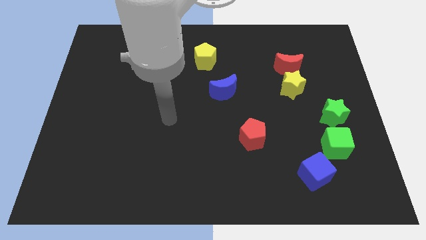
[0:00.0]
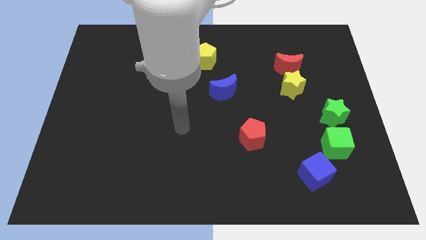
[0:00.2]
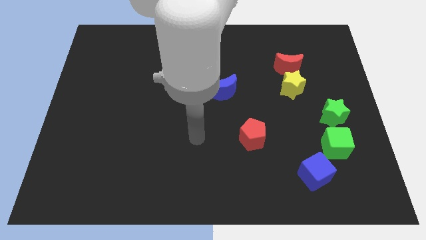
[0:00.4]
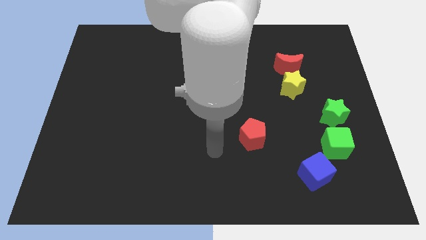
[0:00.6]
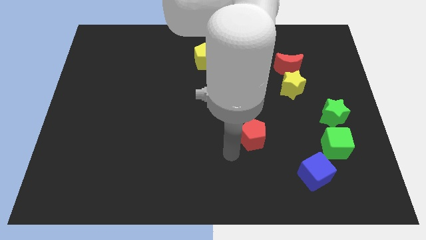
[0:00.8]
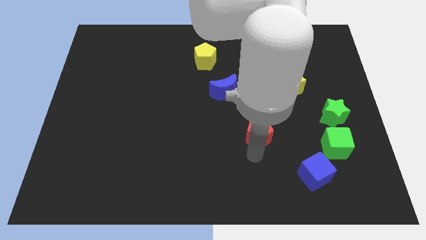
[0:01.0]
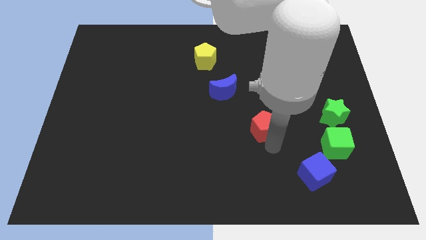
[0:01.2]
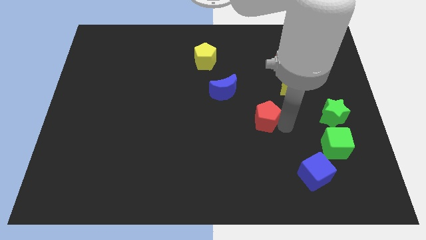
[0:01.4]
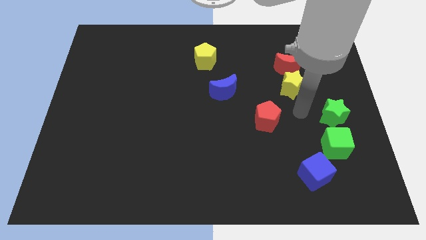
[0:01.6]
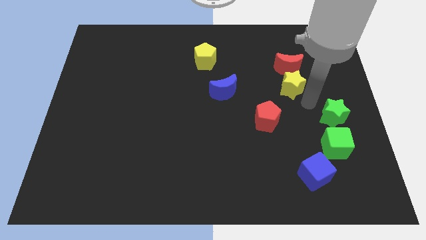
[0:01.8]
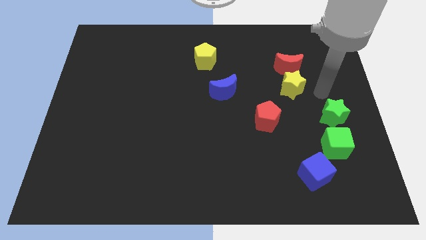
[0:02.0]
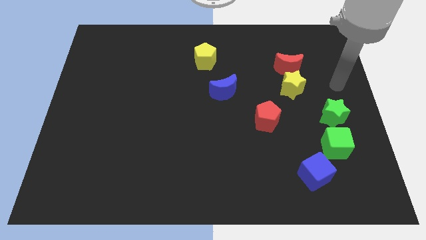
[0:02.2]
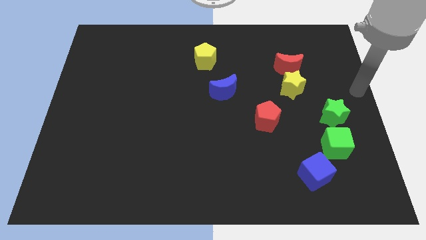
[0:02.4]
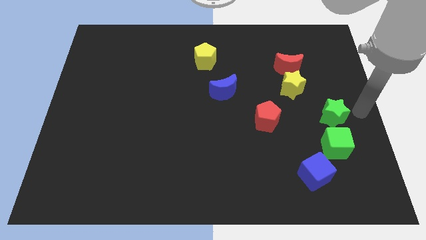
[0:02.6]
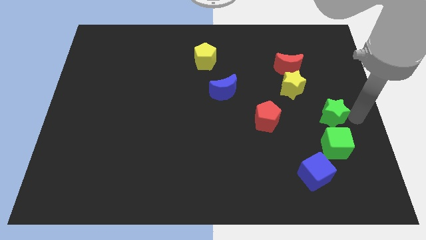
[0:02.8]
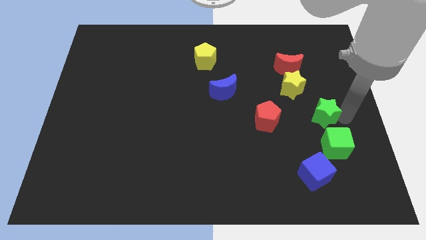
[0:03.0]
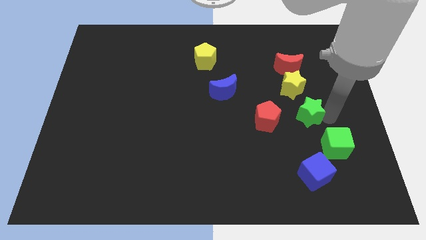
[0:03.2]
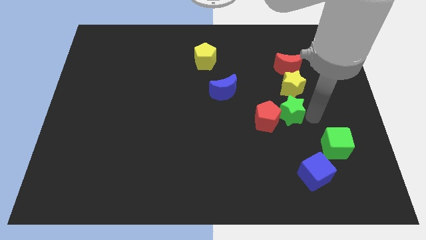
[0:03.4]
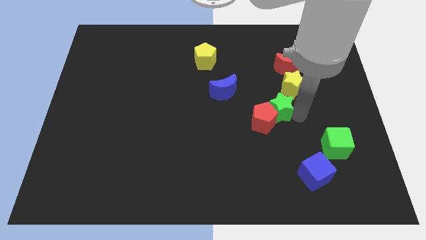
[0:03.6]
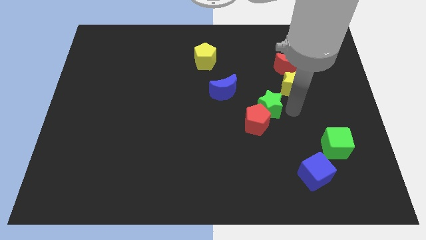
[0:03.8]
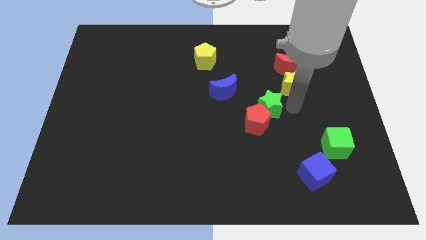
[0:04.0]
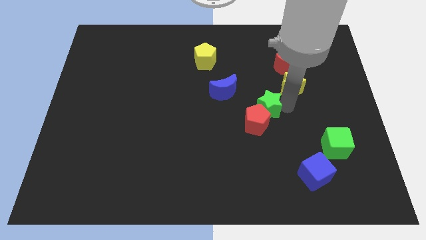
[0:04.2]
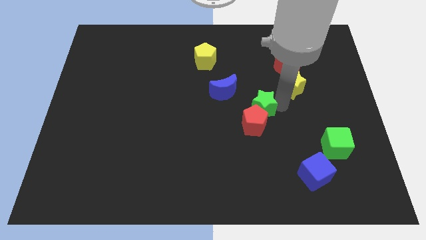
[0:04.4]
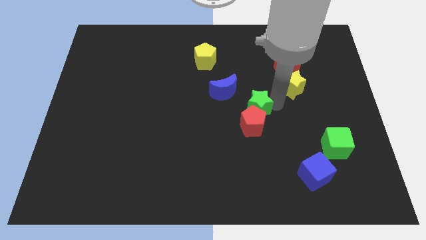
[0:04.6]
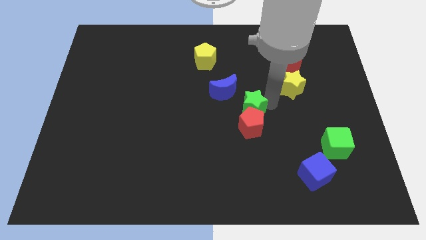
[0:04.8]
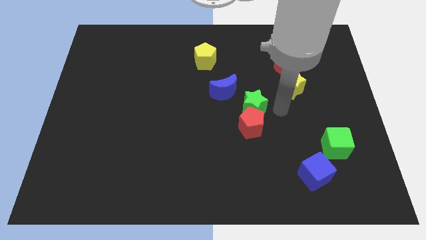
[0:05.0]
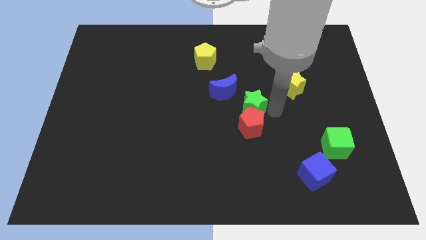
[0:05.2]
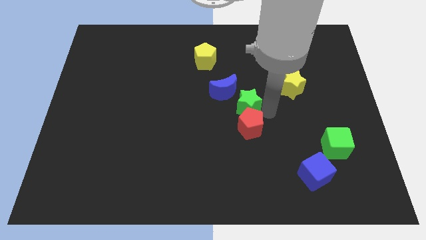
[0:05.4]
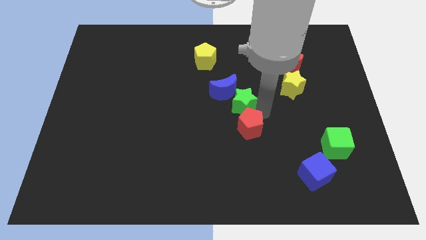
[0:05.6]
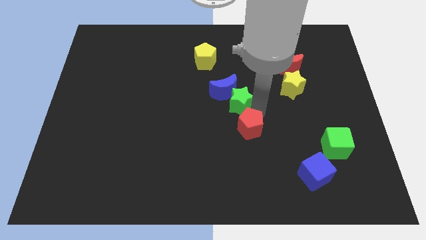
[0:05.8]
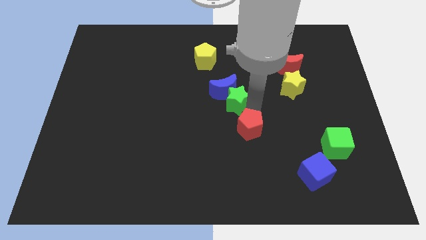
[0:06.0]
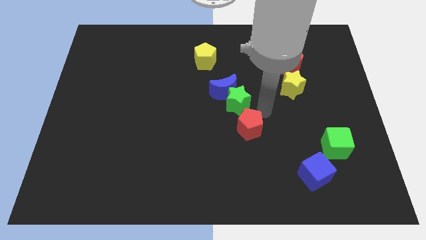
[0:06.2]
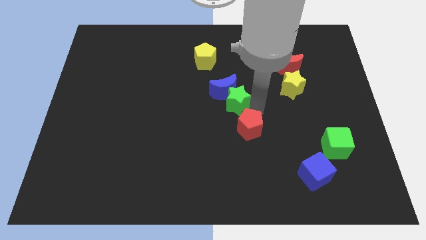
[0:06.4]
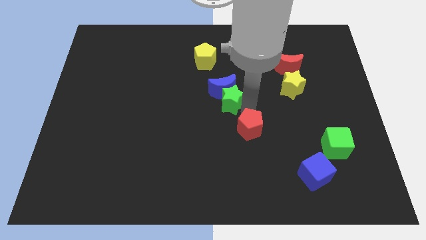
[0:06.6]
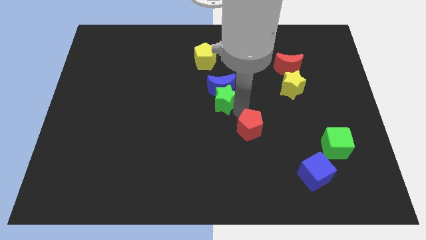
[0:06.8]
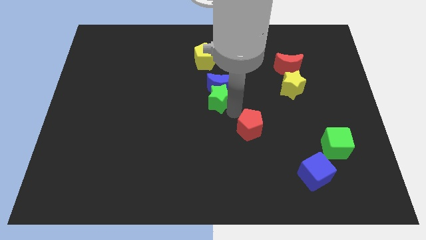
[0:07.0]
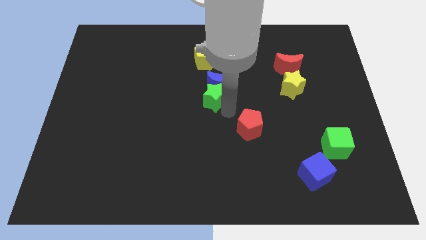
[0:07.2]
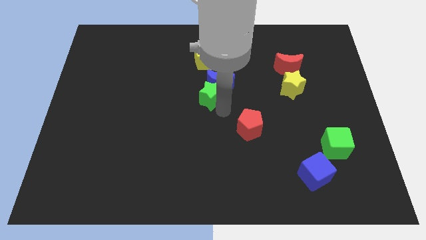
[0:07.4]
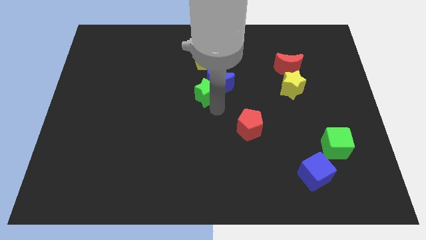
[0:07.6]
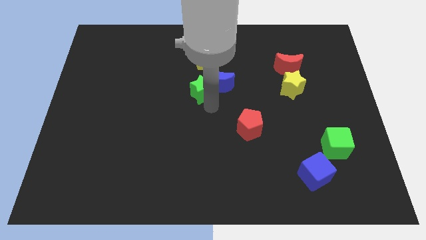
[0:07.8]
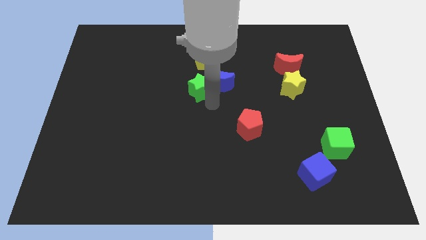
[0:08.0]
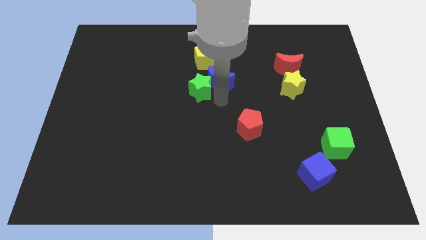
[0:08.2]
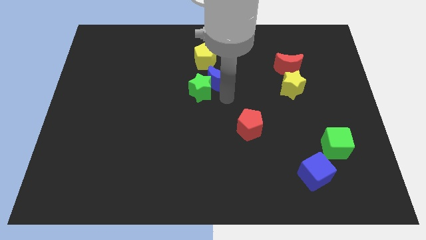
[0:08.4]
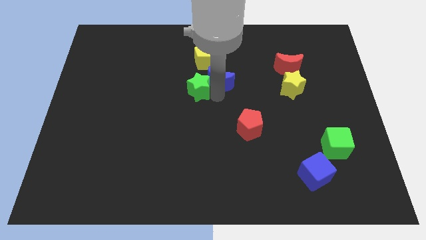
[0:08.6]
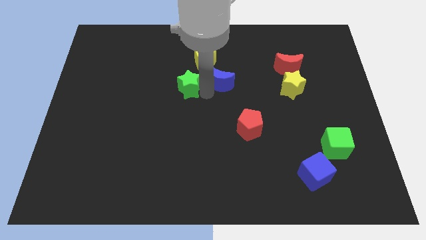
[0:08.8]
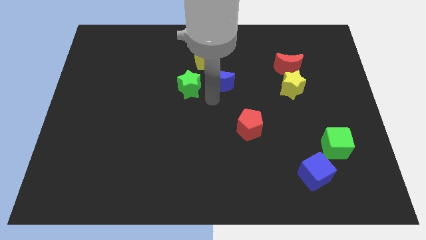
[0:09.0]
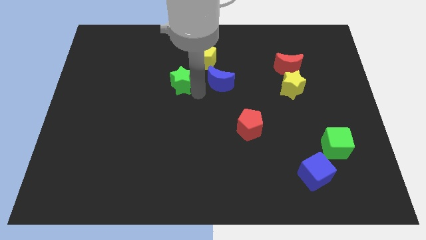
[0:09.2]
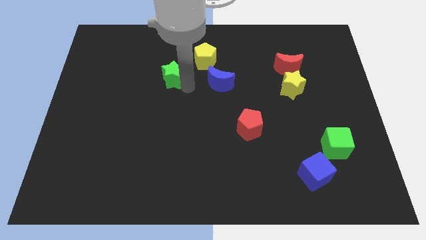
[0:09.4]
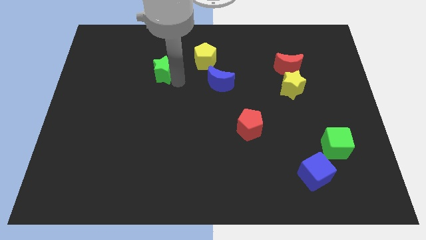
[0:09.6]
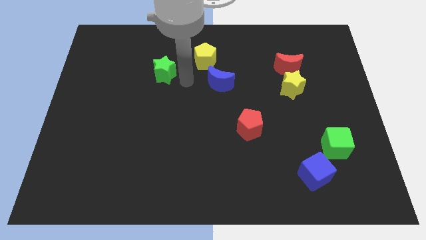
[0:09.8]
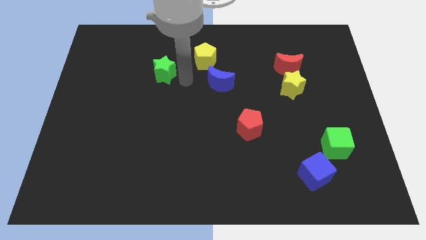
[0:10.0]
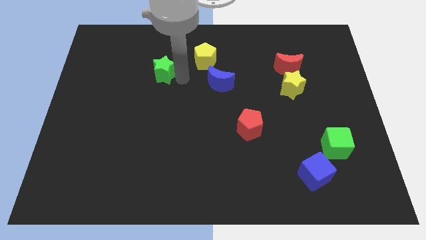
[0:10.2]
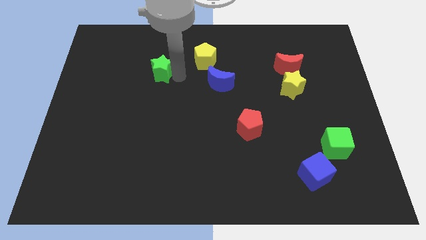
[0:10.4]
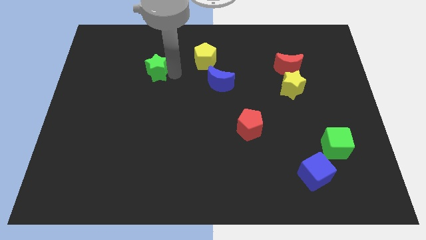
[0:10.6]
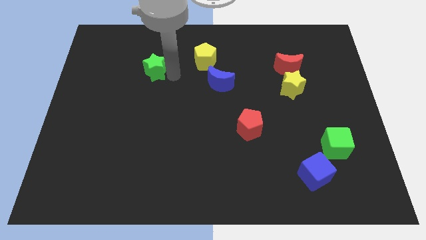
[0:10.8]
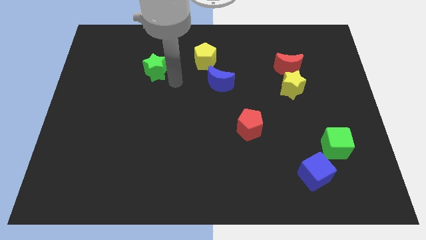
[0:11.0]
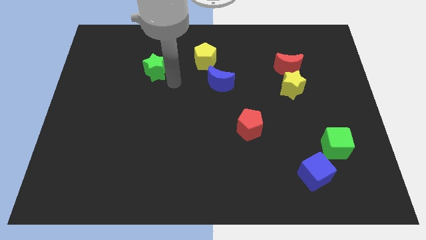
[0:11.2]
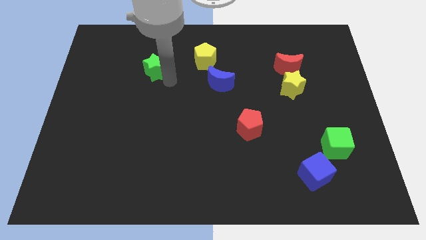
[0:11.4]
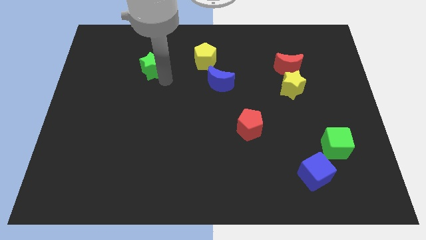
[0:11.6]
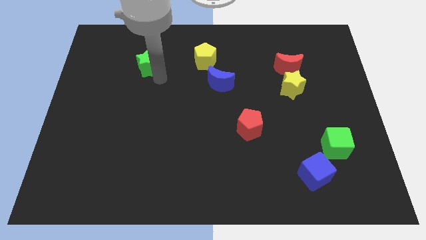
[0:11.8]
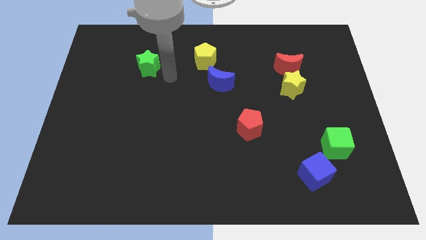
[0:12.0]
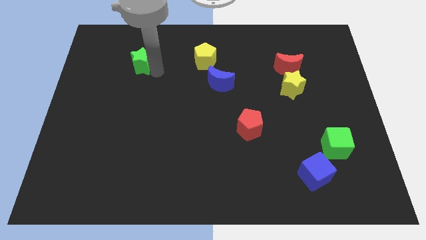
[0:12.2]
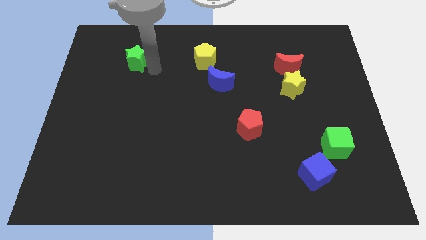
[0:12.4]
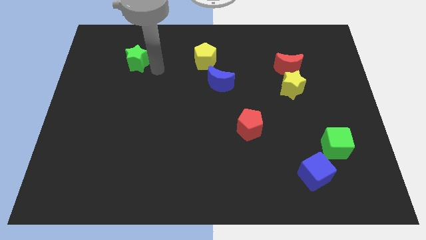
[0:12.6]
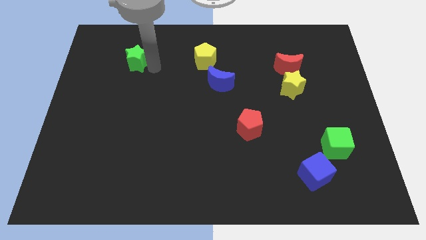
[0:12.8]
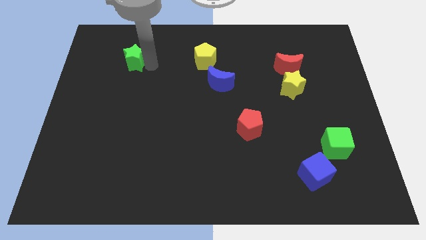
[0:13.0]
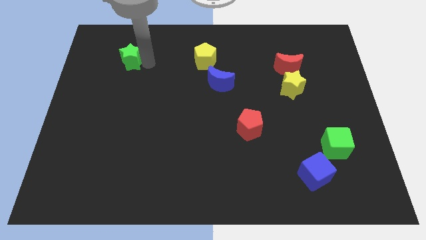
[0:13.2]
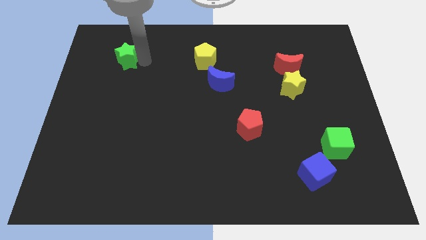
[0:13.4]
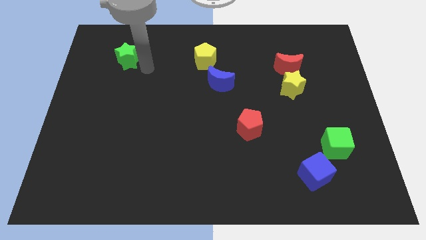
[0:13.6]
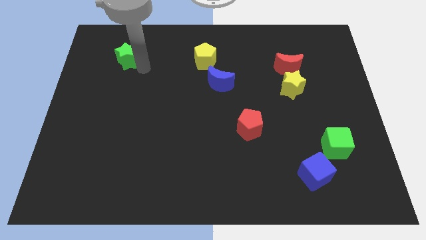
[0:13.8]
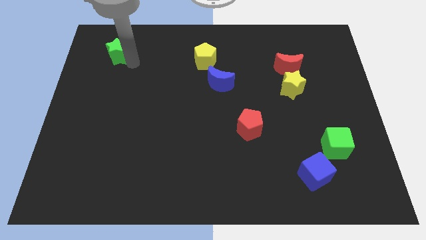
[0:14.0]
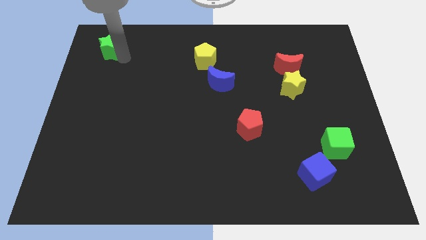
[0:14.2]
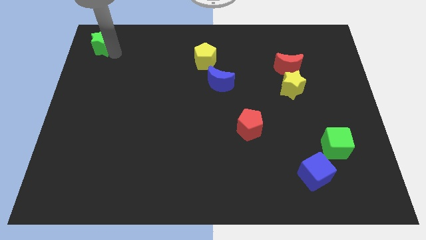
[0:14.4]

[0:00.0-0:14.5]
move the green star to the top left corner
